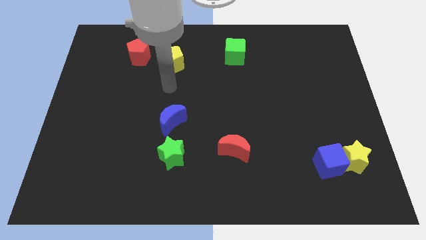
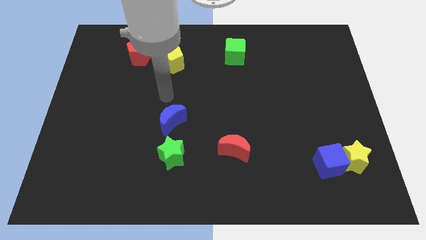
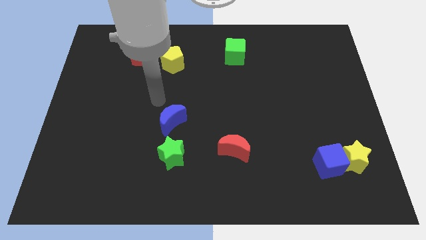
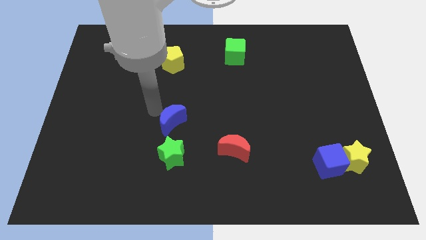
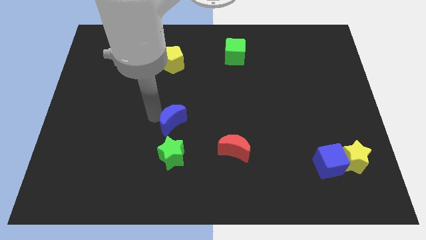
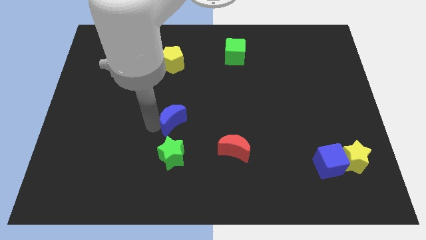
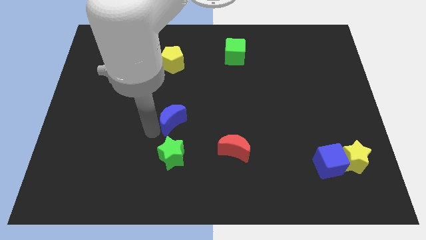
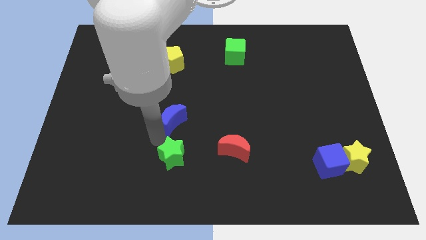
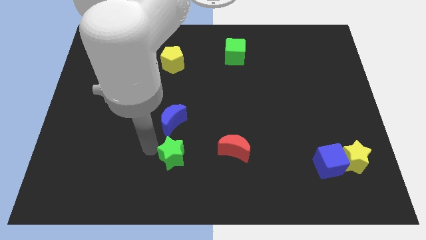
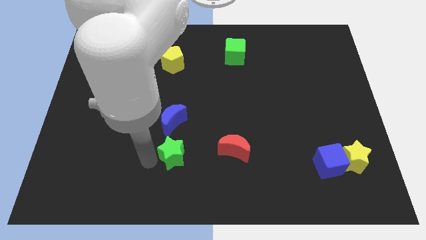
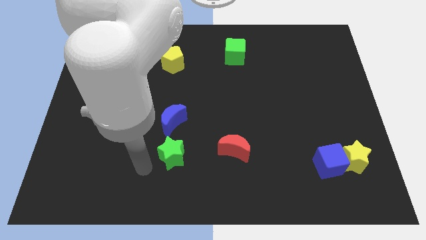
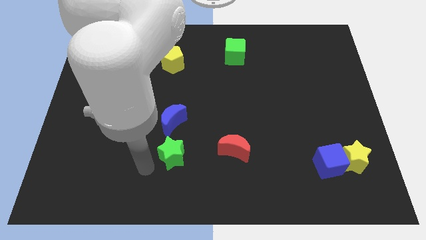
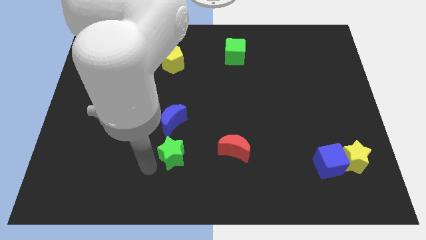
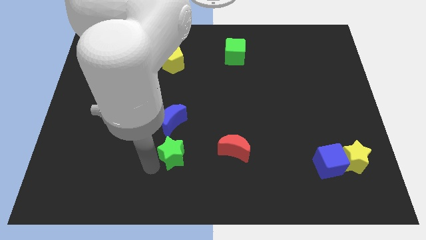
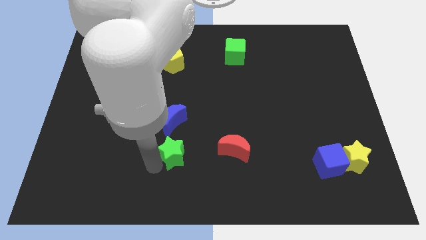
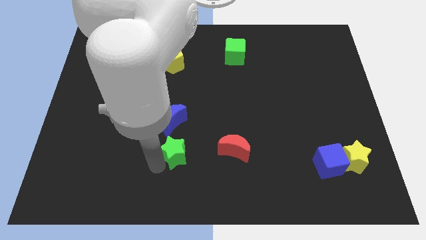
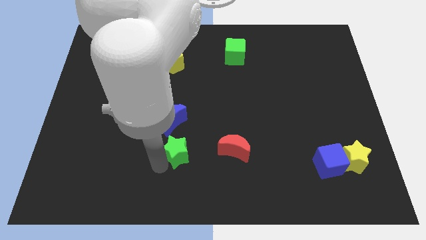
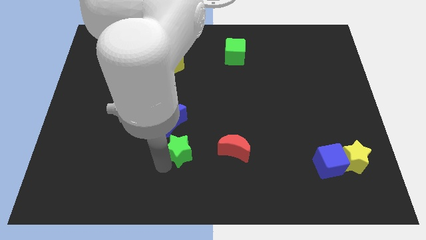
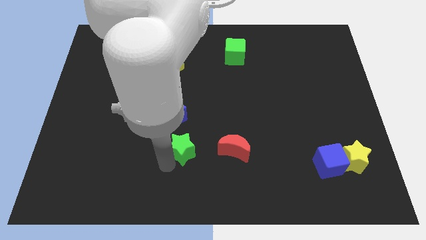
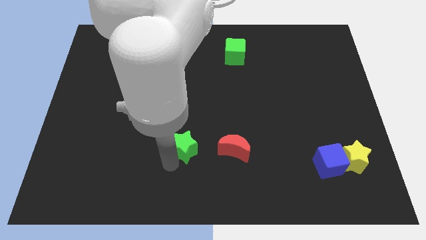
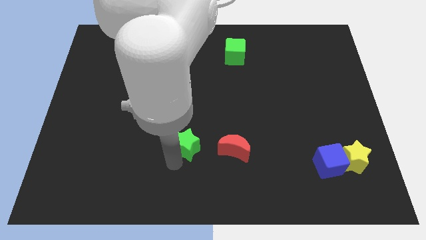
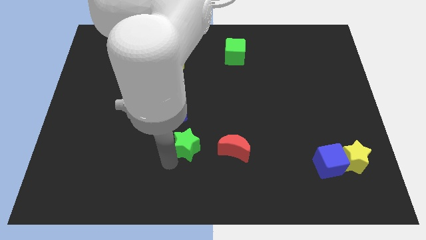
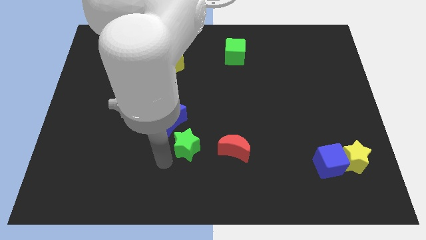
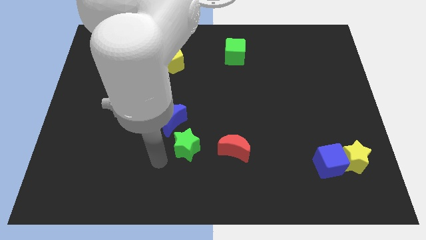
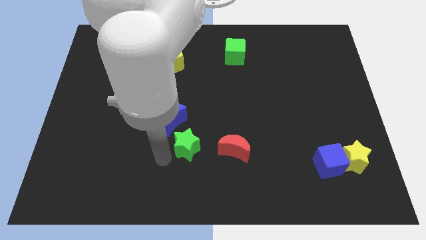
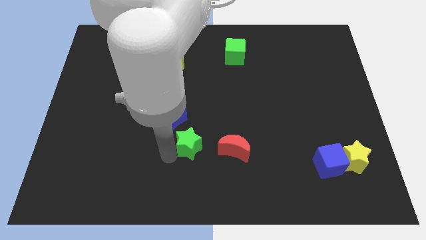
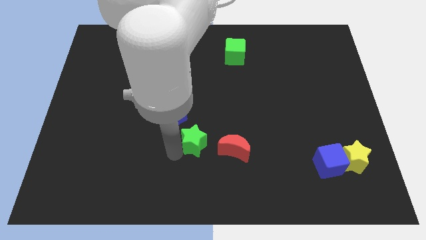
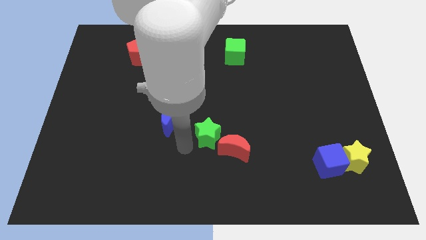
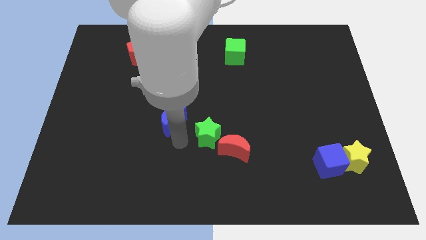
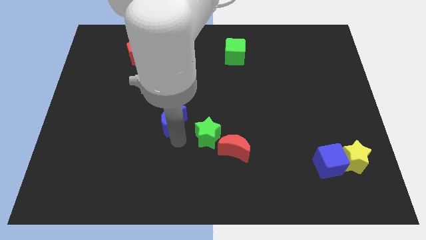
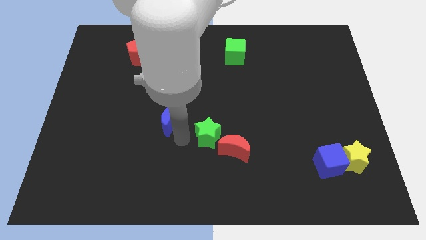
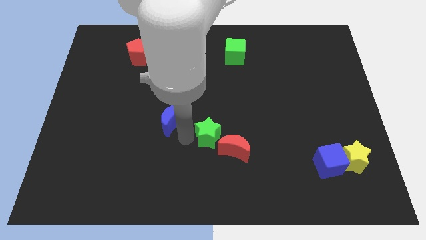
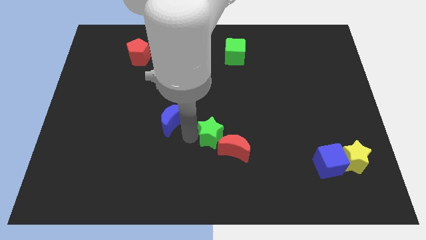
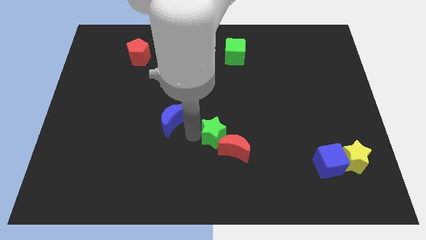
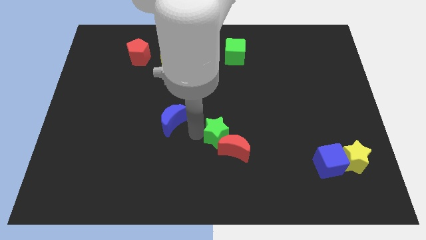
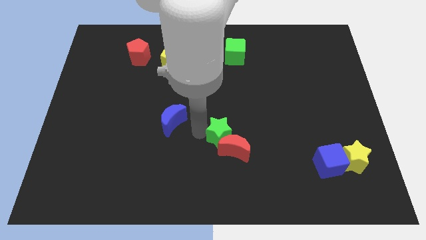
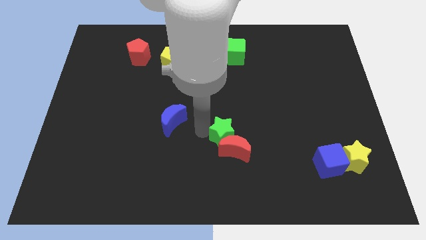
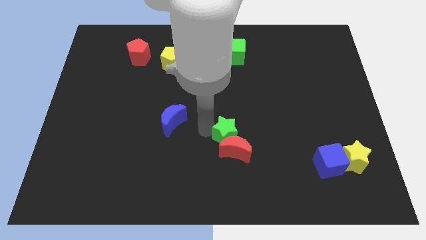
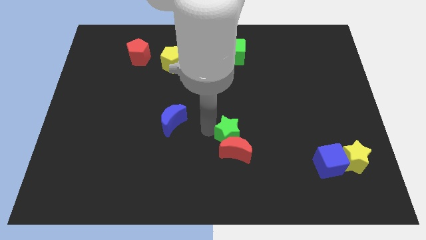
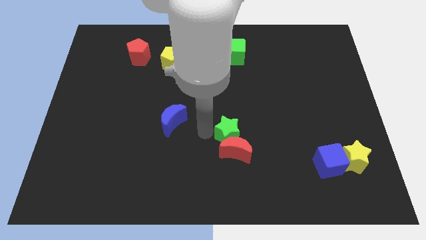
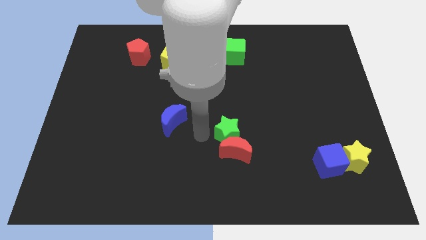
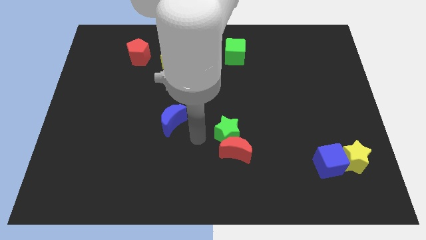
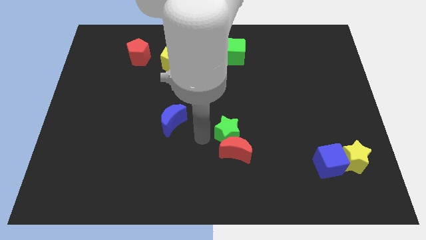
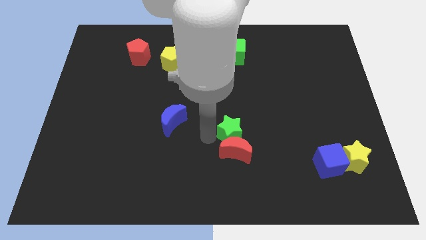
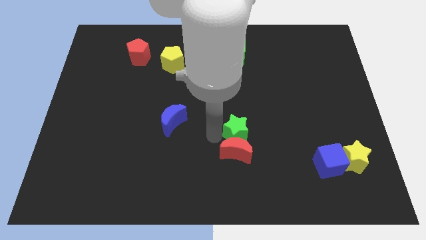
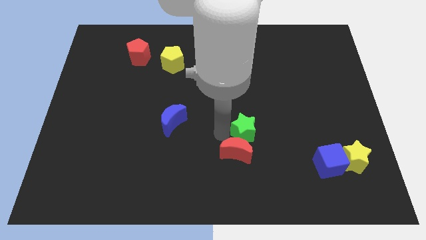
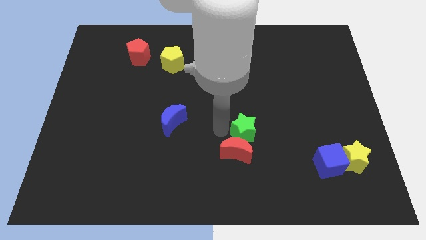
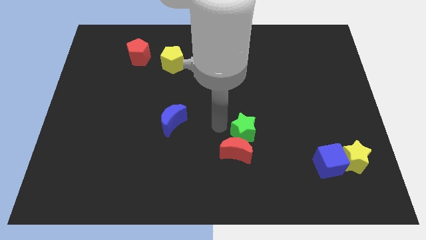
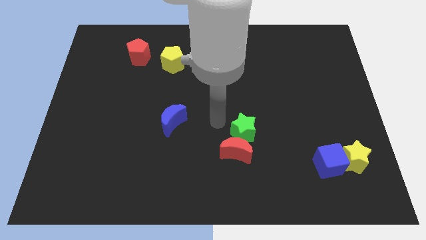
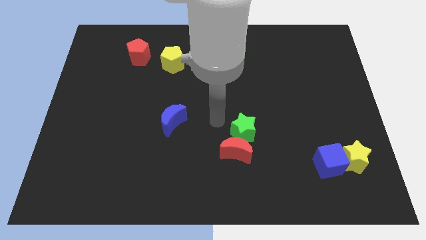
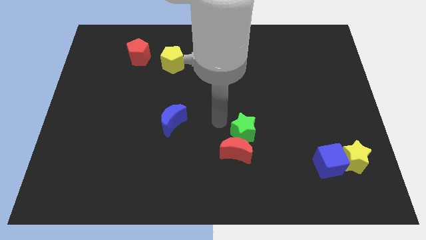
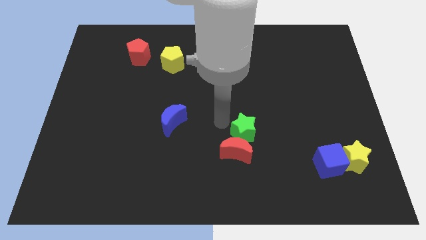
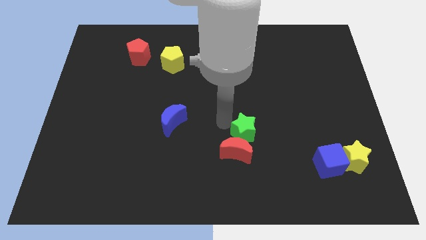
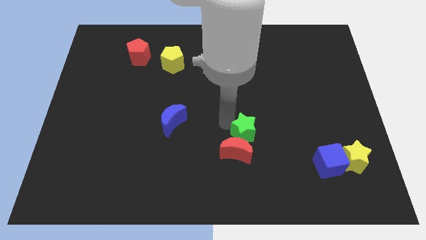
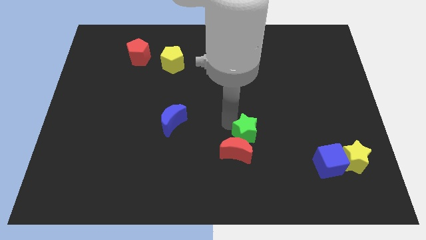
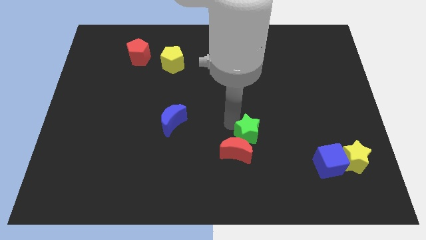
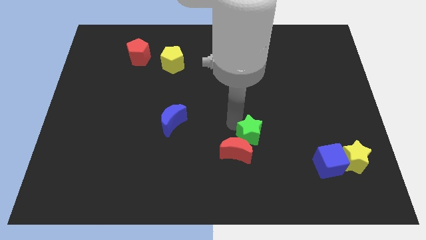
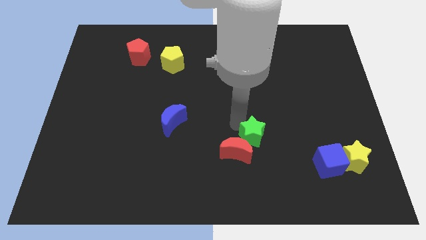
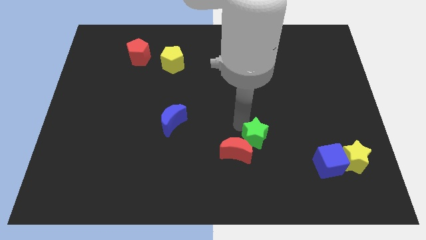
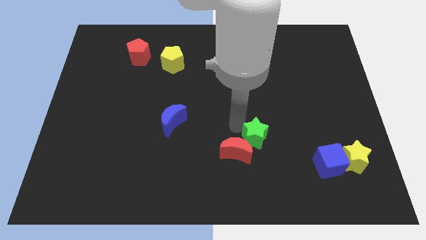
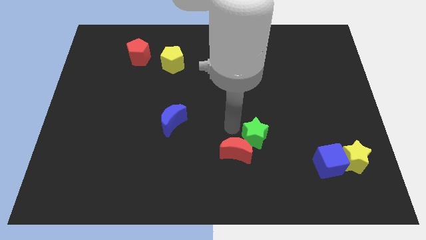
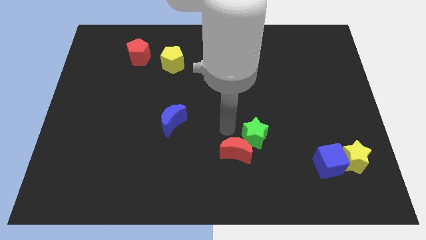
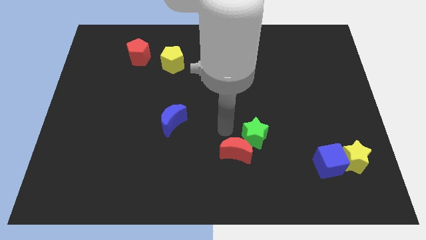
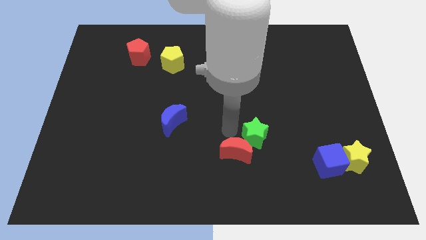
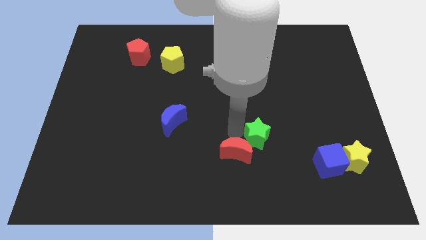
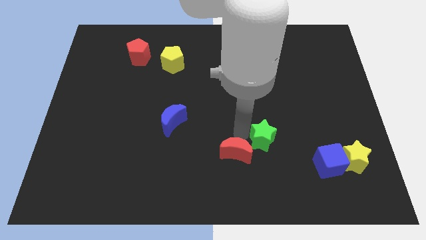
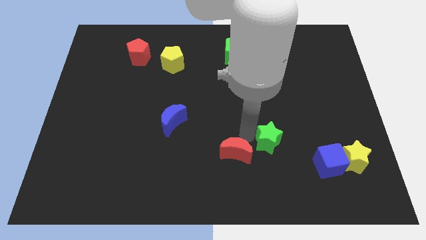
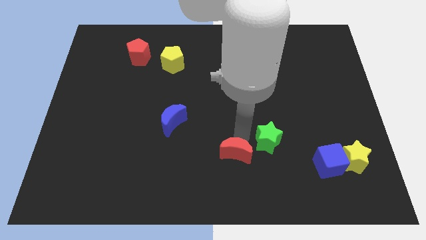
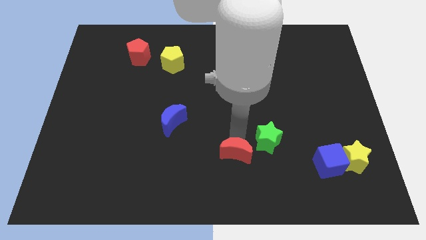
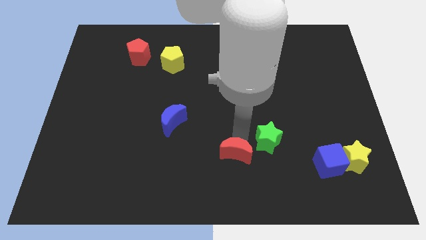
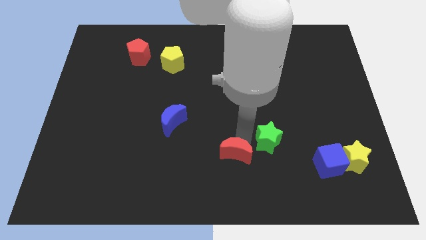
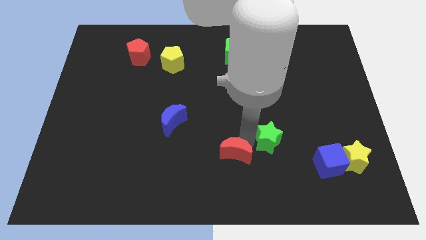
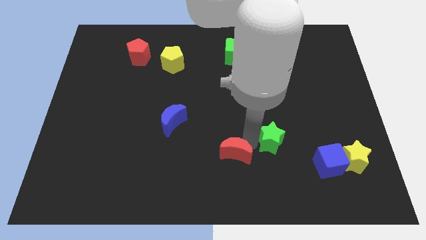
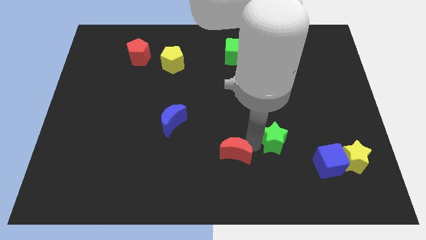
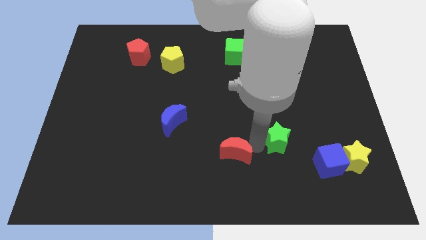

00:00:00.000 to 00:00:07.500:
put the green star diagonally up and to the left of the blue cube
